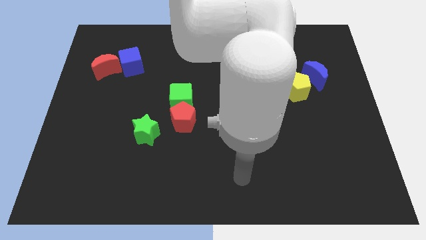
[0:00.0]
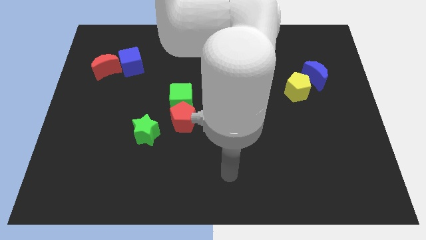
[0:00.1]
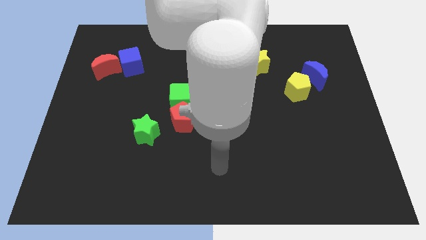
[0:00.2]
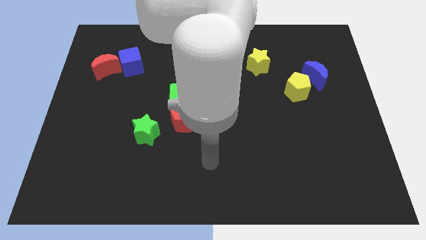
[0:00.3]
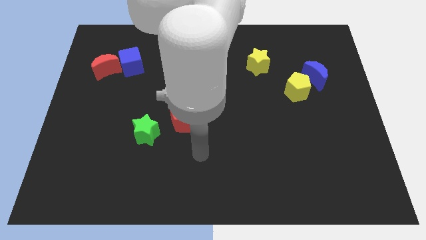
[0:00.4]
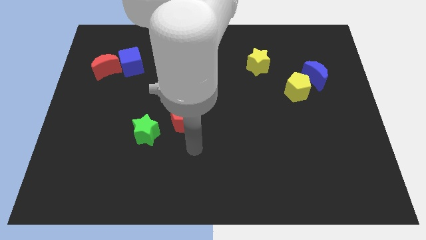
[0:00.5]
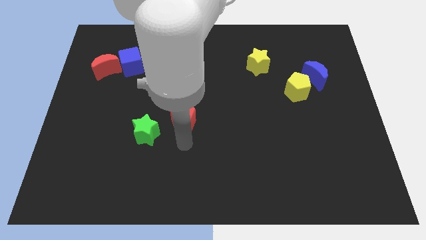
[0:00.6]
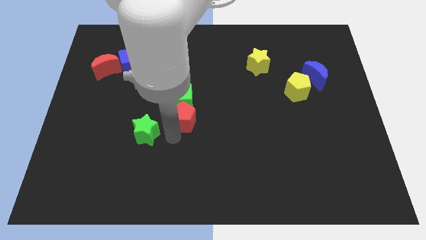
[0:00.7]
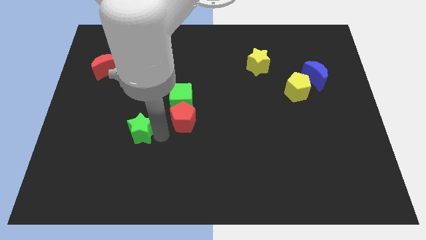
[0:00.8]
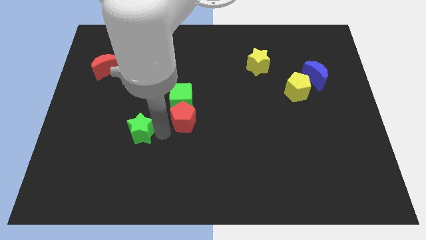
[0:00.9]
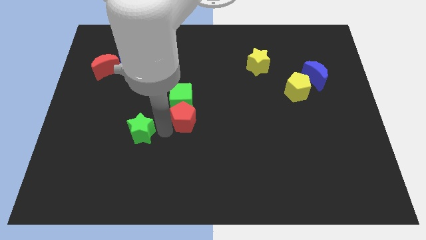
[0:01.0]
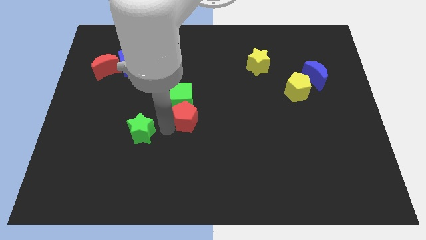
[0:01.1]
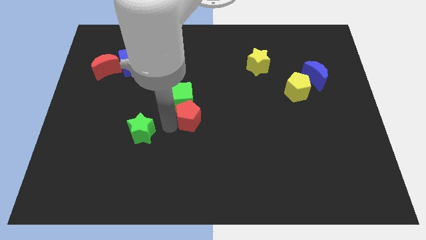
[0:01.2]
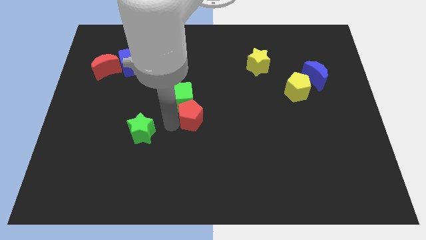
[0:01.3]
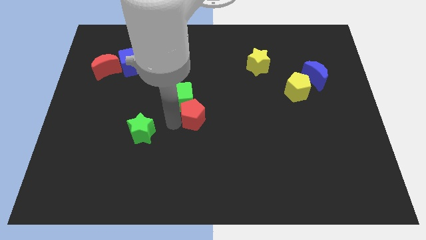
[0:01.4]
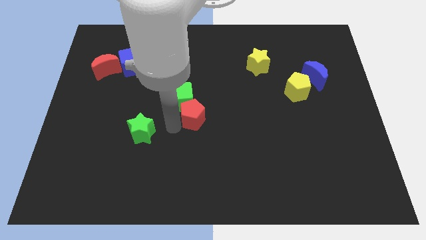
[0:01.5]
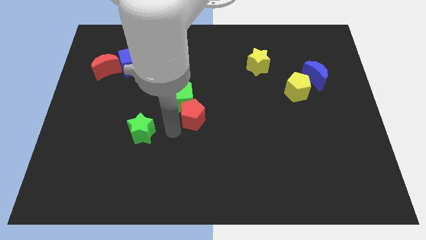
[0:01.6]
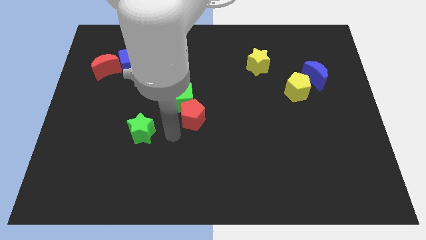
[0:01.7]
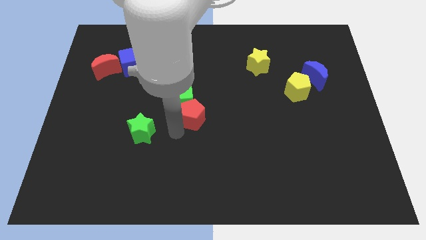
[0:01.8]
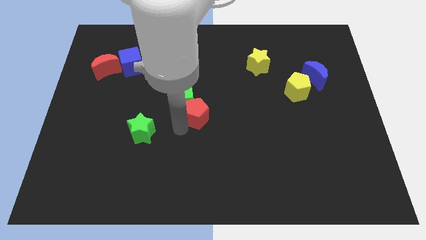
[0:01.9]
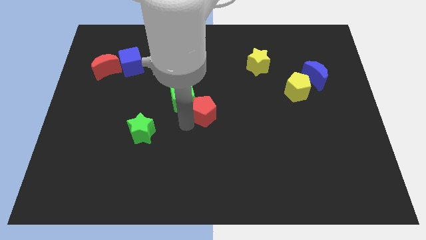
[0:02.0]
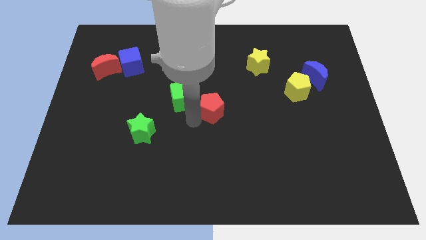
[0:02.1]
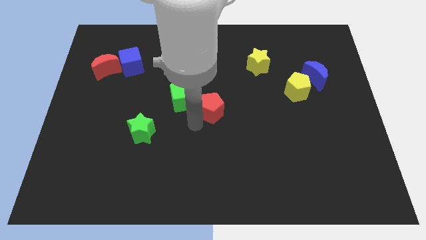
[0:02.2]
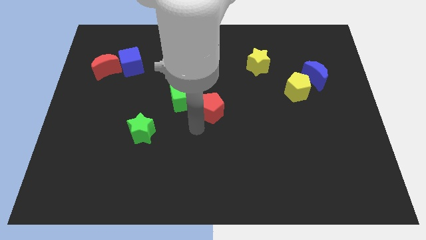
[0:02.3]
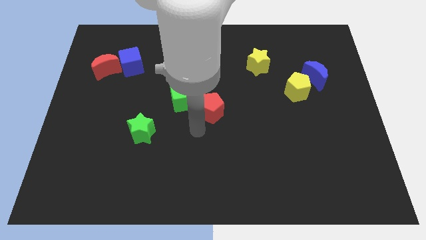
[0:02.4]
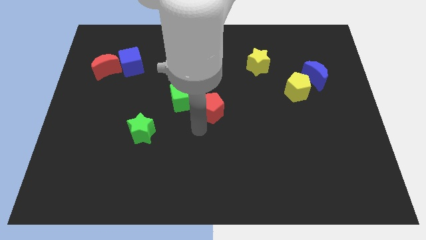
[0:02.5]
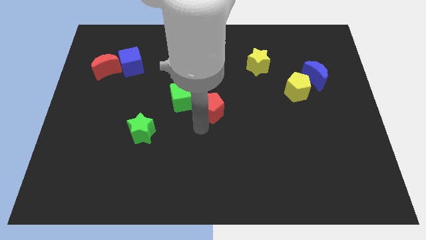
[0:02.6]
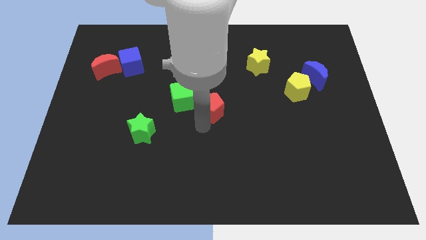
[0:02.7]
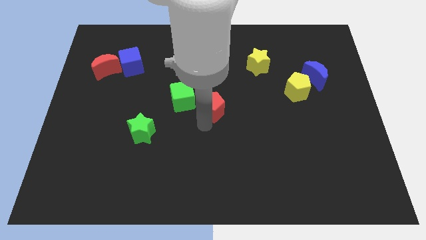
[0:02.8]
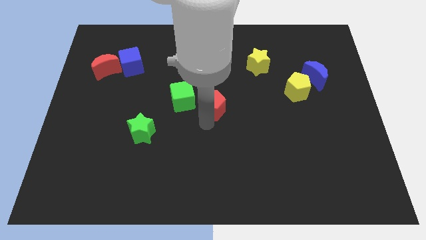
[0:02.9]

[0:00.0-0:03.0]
slide the red pentagon up and right a bit

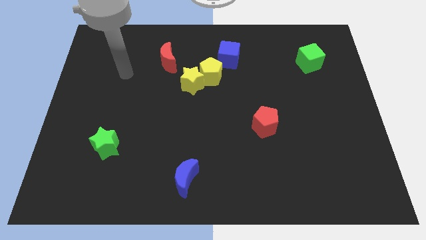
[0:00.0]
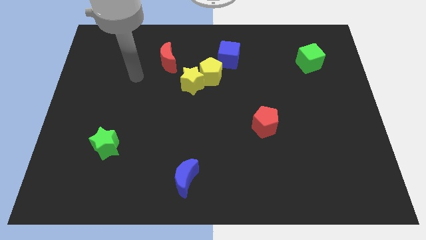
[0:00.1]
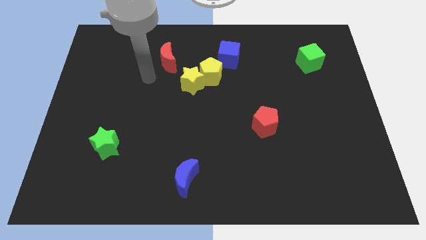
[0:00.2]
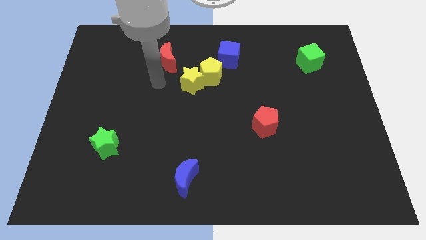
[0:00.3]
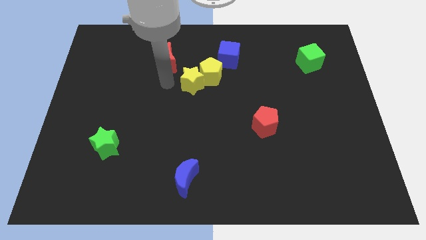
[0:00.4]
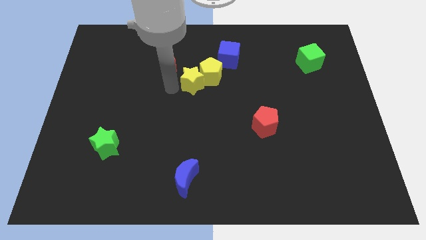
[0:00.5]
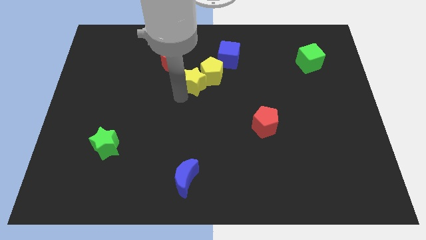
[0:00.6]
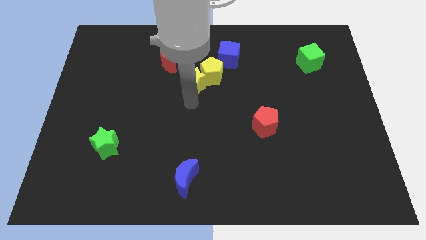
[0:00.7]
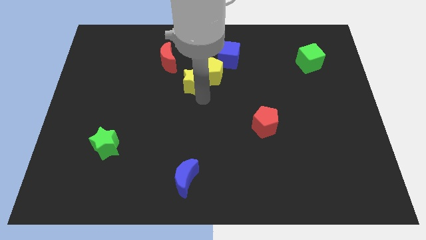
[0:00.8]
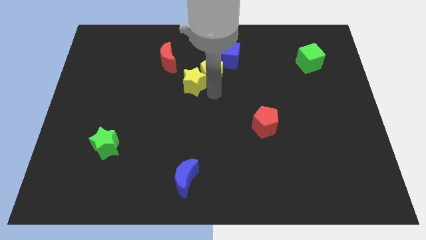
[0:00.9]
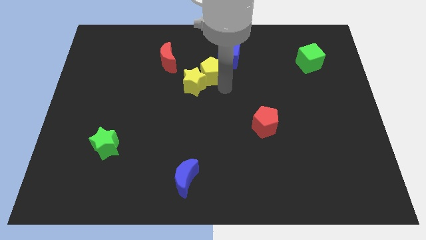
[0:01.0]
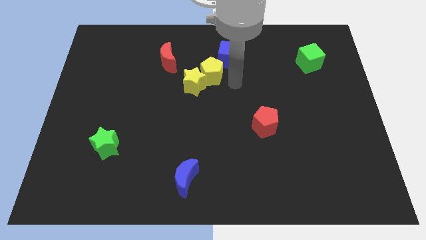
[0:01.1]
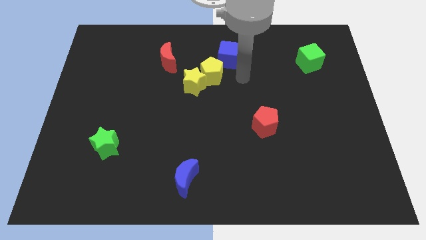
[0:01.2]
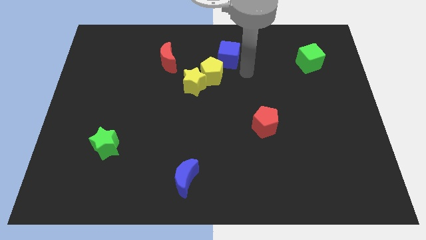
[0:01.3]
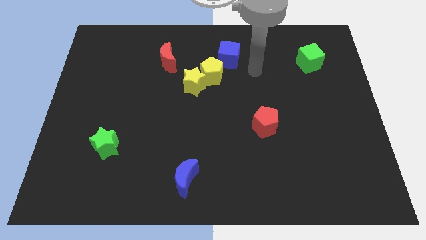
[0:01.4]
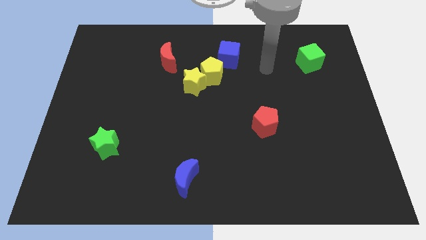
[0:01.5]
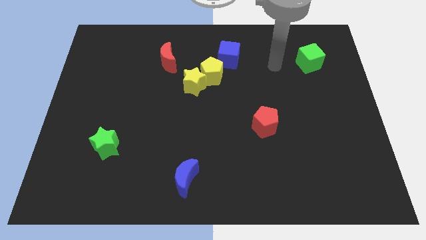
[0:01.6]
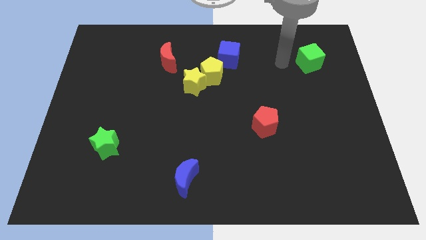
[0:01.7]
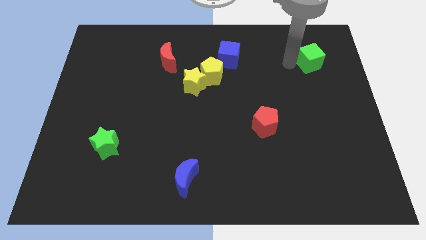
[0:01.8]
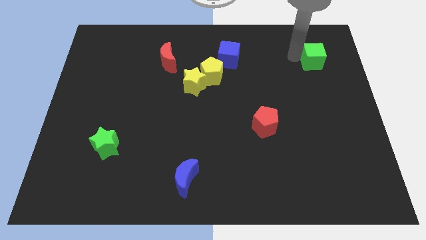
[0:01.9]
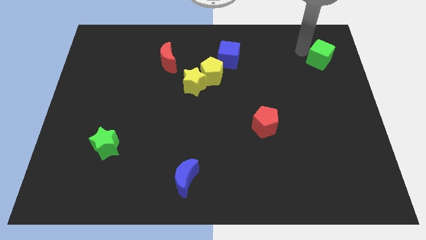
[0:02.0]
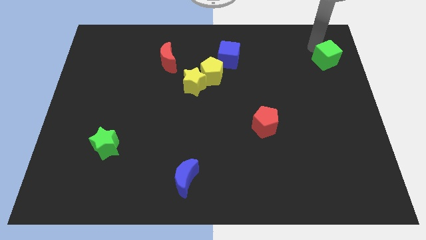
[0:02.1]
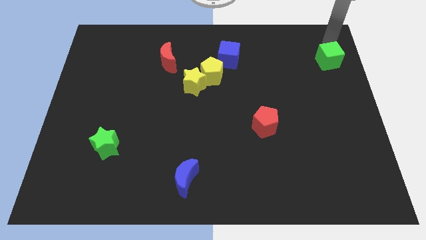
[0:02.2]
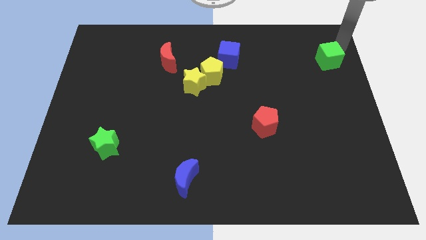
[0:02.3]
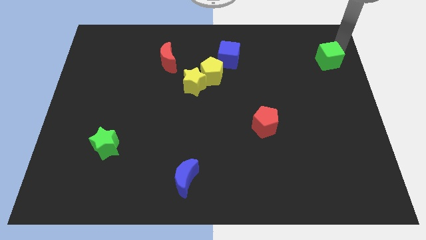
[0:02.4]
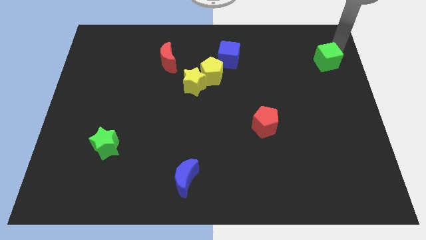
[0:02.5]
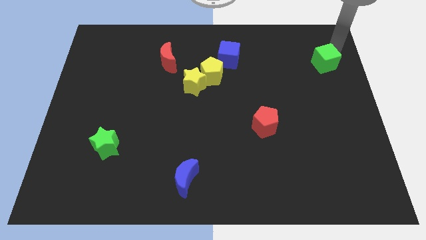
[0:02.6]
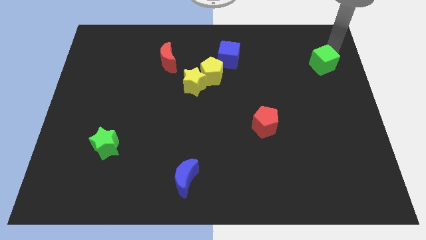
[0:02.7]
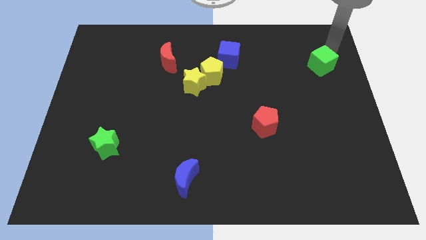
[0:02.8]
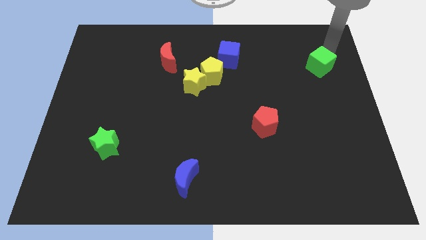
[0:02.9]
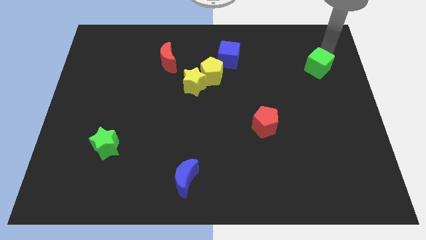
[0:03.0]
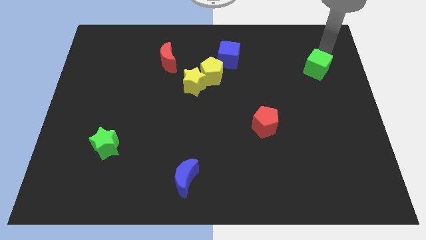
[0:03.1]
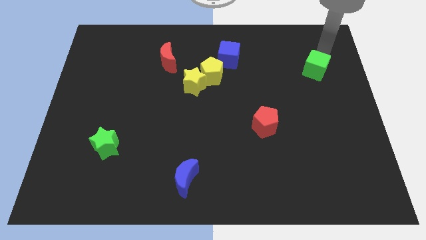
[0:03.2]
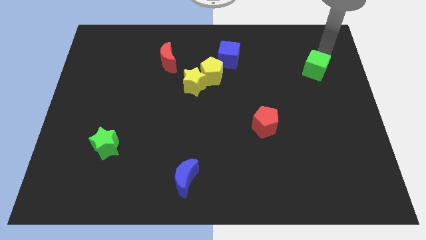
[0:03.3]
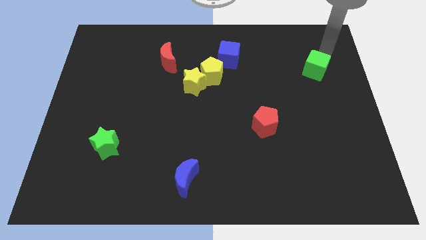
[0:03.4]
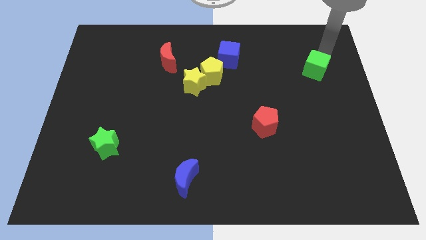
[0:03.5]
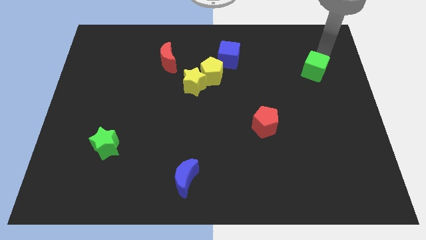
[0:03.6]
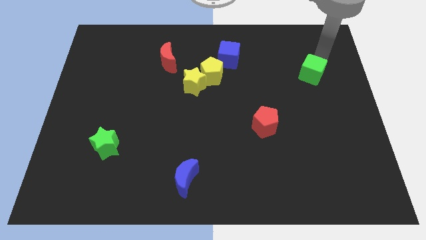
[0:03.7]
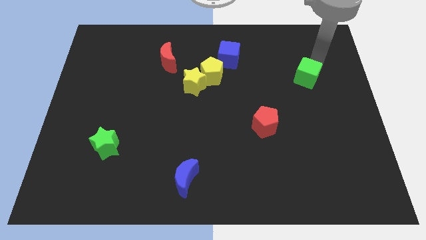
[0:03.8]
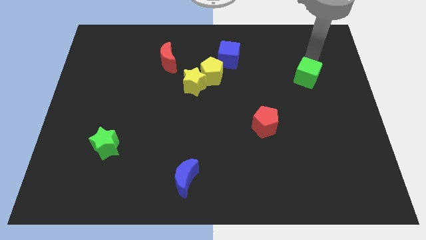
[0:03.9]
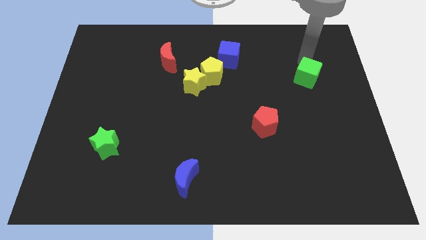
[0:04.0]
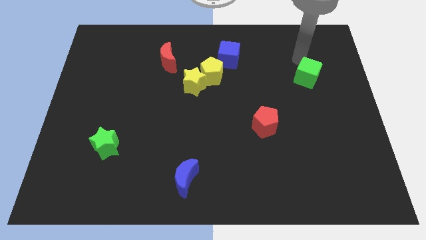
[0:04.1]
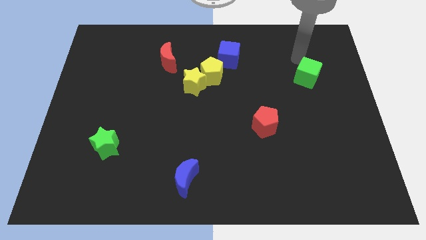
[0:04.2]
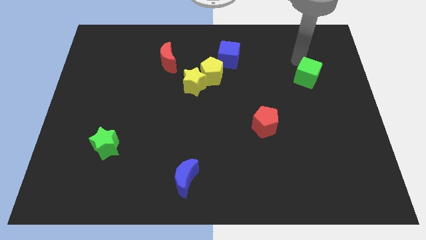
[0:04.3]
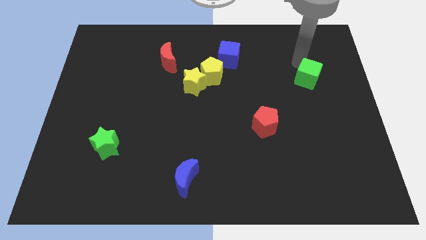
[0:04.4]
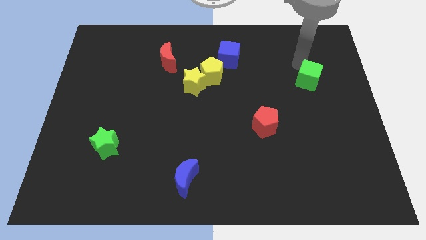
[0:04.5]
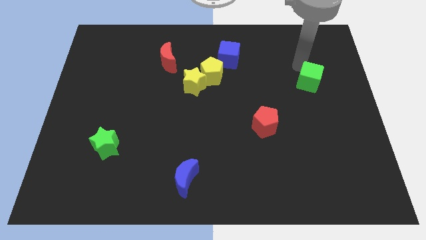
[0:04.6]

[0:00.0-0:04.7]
slightly move the green cube downwards
